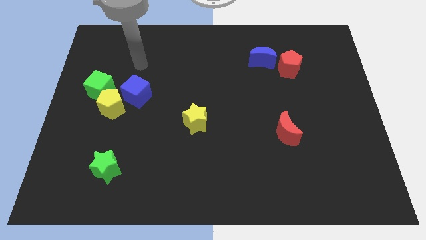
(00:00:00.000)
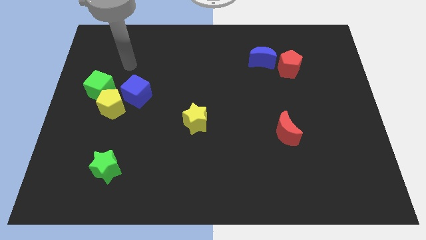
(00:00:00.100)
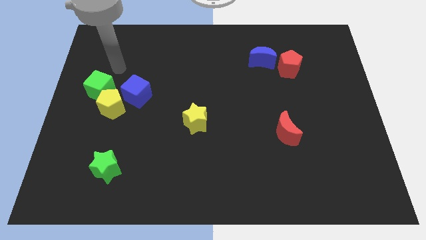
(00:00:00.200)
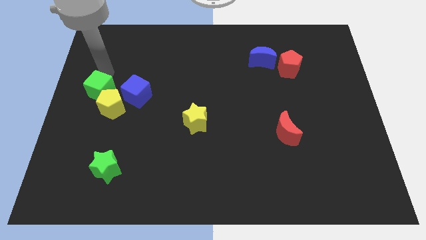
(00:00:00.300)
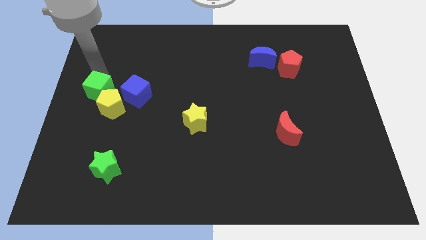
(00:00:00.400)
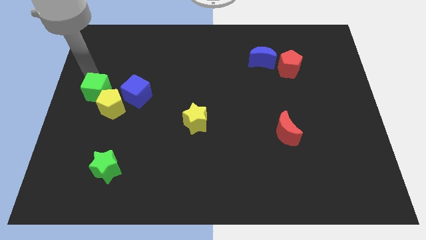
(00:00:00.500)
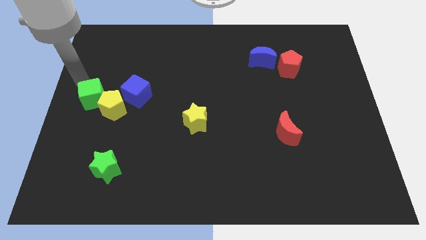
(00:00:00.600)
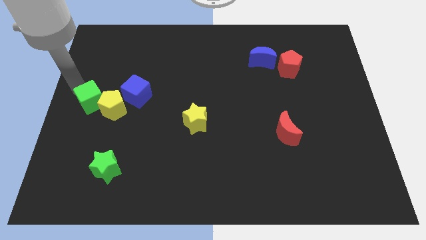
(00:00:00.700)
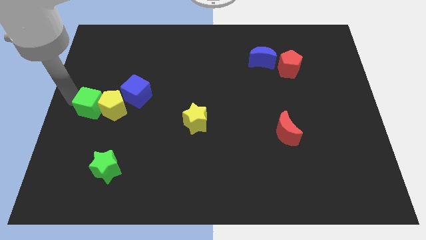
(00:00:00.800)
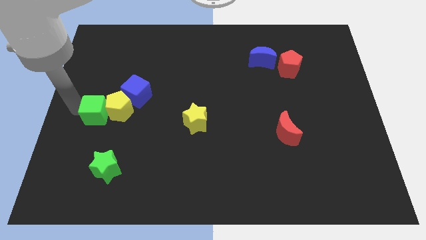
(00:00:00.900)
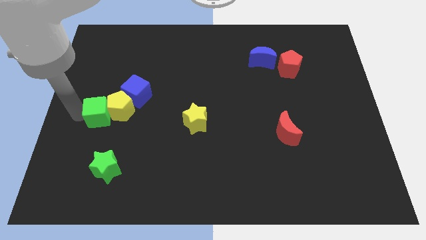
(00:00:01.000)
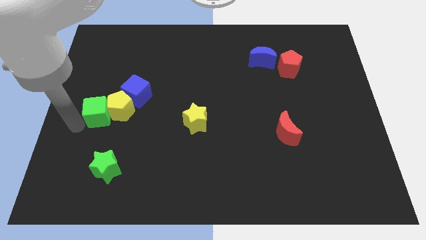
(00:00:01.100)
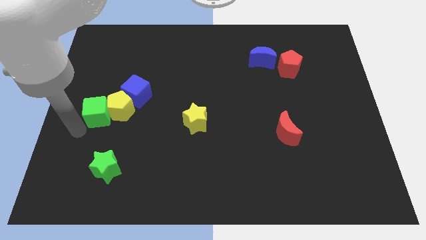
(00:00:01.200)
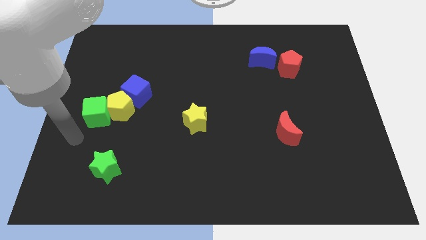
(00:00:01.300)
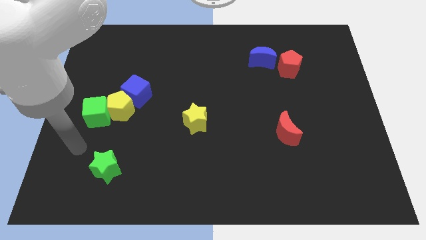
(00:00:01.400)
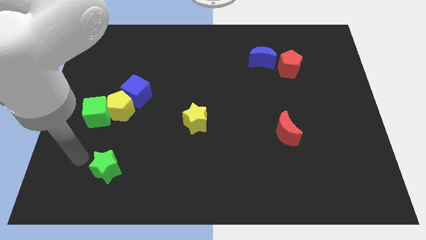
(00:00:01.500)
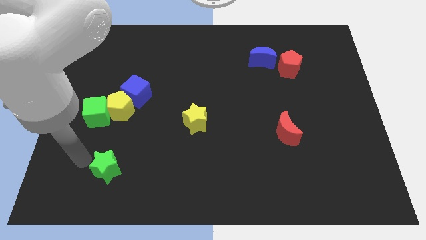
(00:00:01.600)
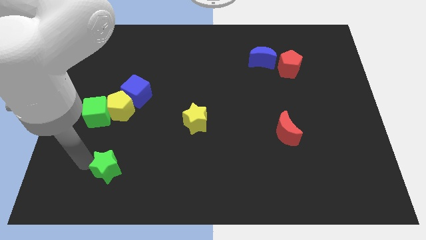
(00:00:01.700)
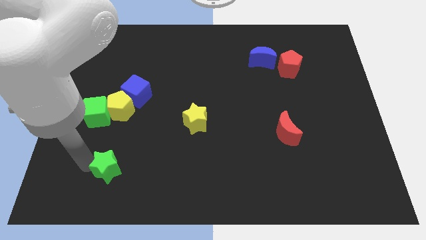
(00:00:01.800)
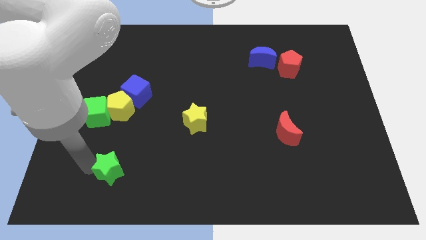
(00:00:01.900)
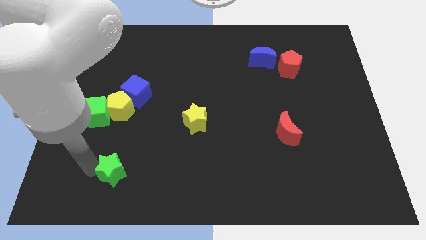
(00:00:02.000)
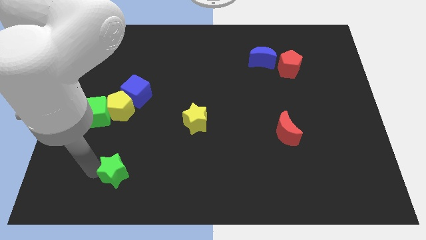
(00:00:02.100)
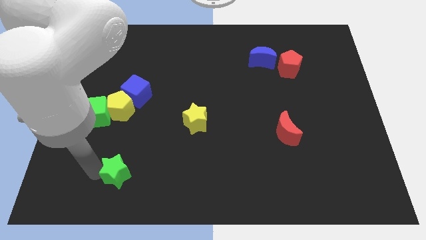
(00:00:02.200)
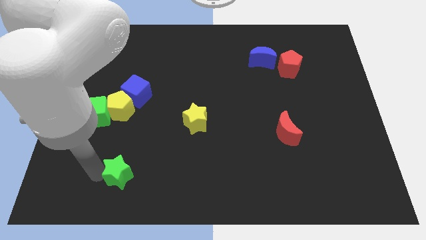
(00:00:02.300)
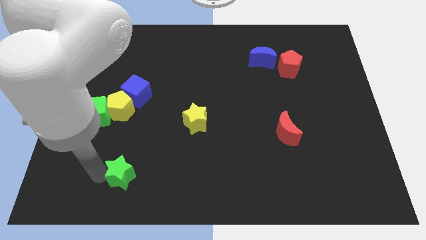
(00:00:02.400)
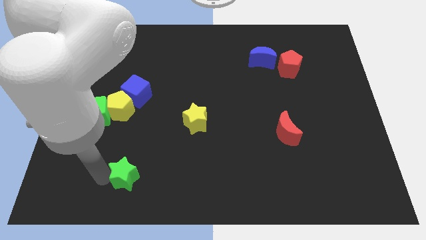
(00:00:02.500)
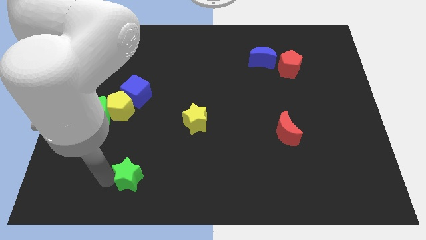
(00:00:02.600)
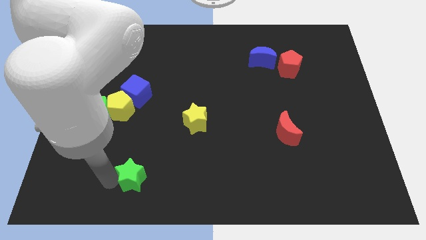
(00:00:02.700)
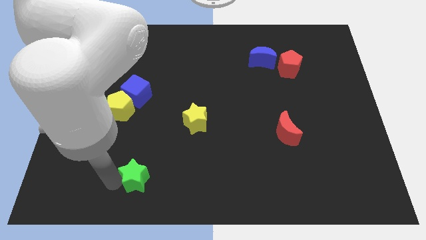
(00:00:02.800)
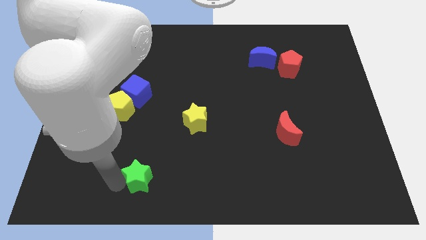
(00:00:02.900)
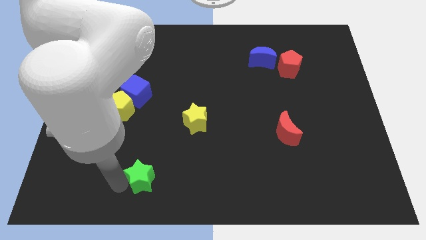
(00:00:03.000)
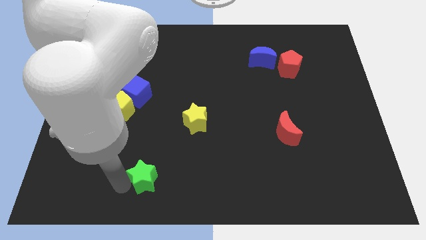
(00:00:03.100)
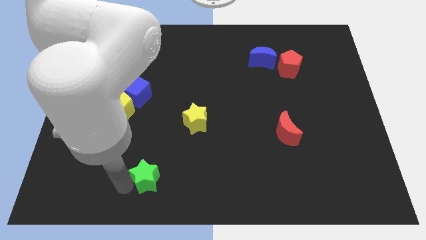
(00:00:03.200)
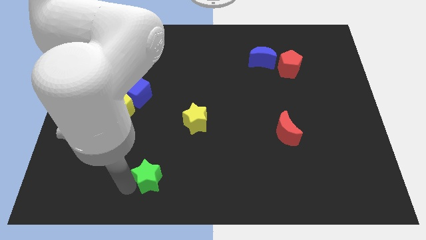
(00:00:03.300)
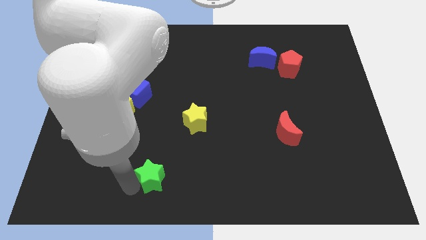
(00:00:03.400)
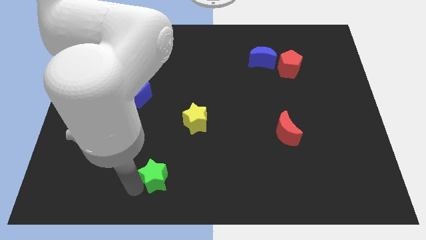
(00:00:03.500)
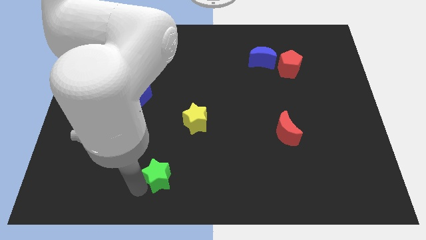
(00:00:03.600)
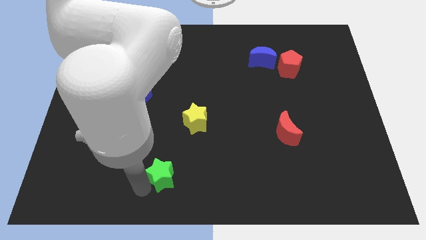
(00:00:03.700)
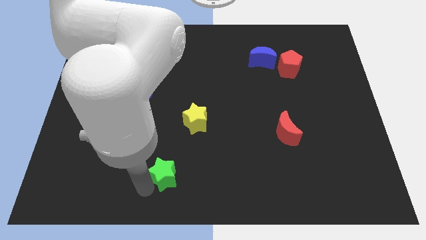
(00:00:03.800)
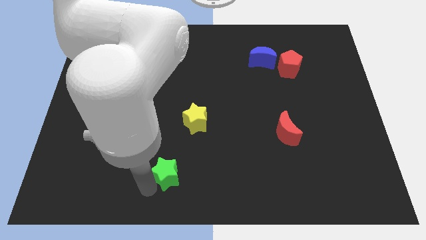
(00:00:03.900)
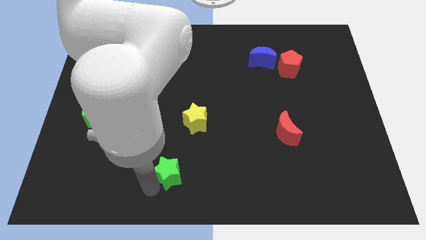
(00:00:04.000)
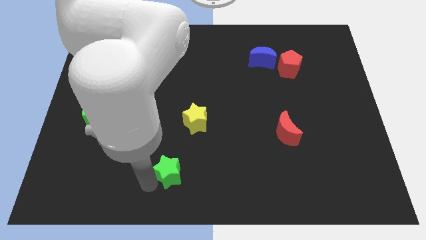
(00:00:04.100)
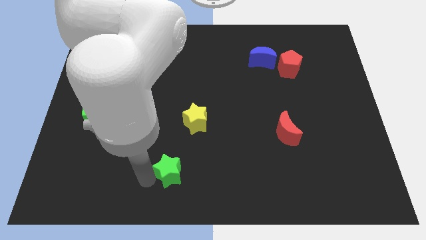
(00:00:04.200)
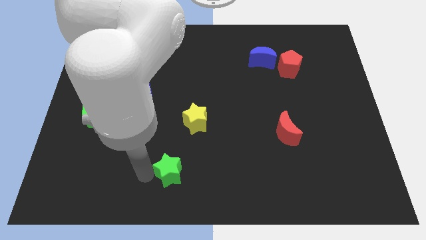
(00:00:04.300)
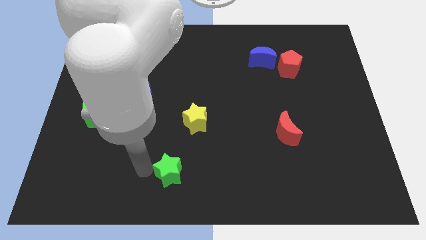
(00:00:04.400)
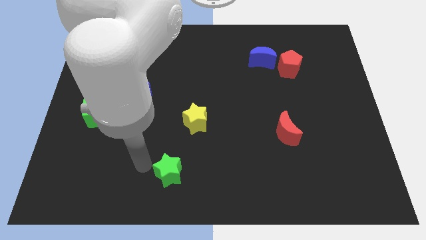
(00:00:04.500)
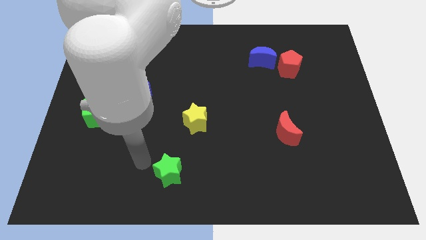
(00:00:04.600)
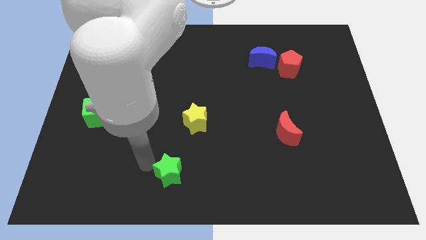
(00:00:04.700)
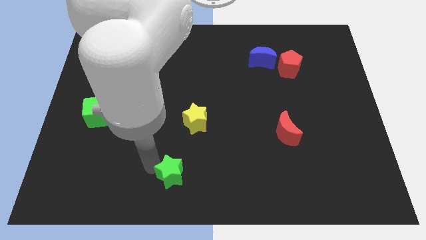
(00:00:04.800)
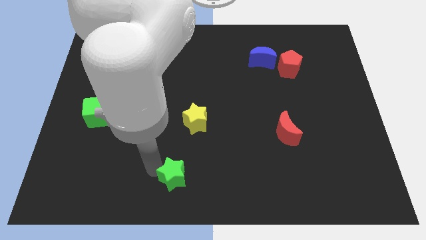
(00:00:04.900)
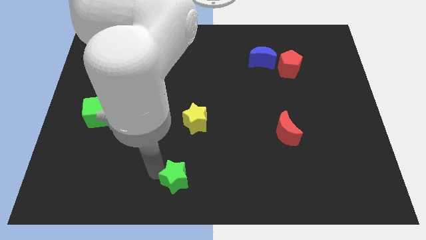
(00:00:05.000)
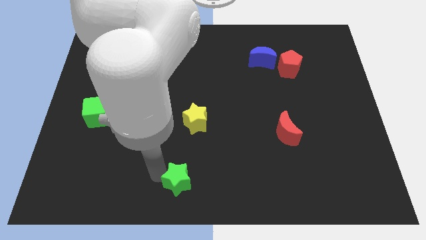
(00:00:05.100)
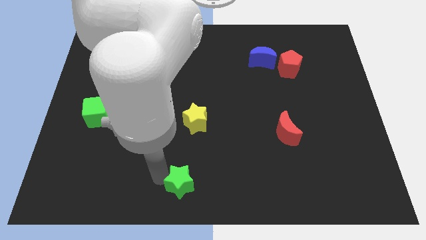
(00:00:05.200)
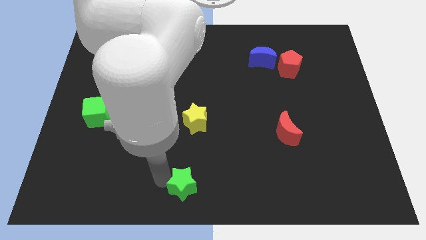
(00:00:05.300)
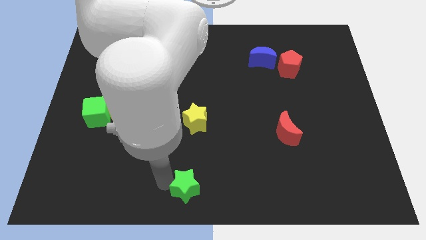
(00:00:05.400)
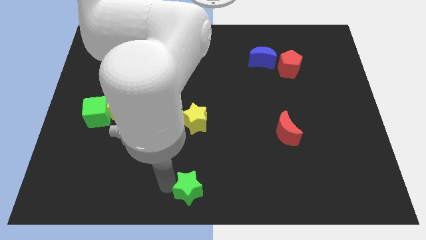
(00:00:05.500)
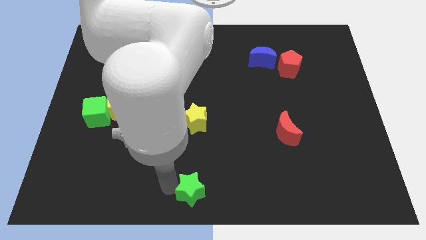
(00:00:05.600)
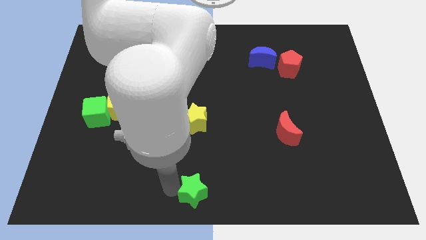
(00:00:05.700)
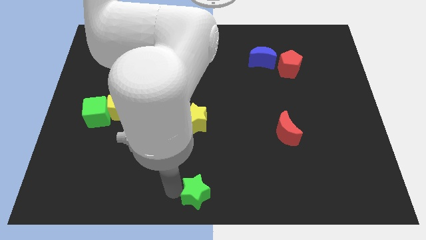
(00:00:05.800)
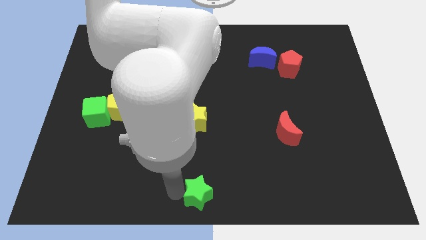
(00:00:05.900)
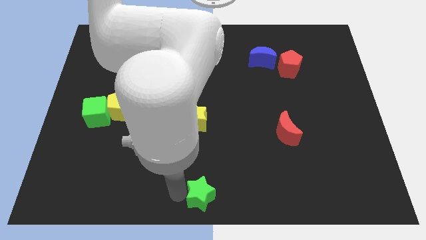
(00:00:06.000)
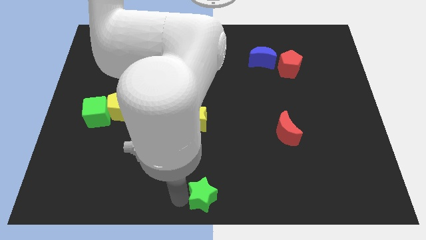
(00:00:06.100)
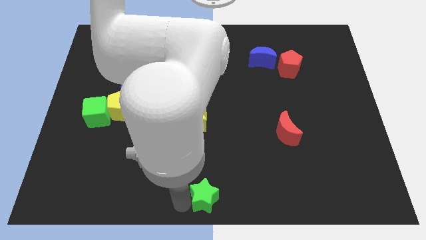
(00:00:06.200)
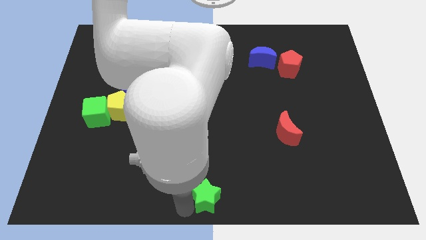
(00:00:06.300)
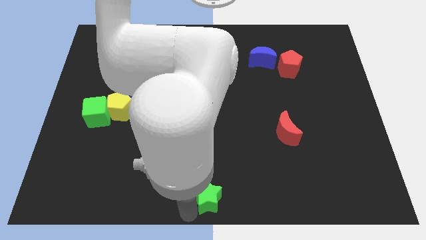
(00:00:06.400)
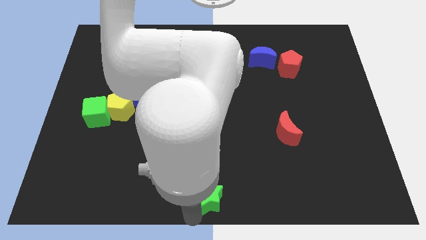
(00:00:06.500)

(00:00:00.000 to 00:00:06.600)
move the green star to the right

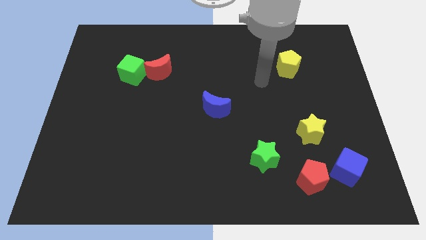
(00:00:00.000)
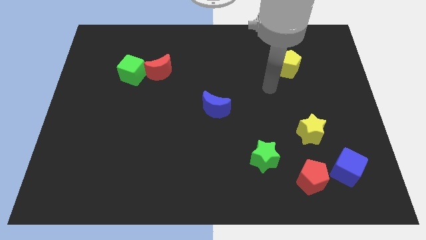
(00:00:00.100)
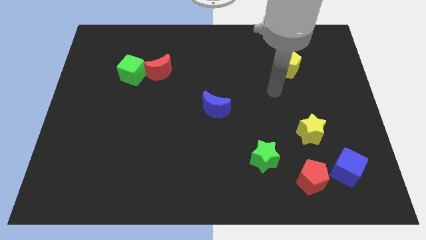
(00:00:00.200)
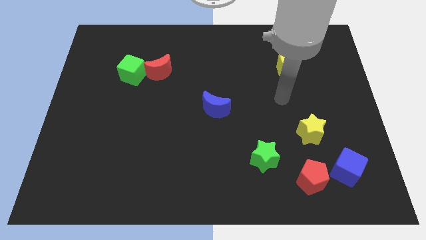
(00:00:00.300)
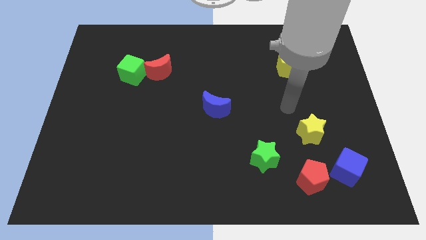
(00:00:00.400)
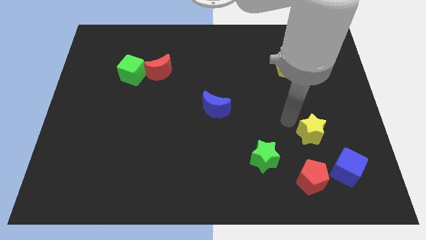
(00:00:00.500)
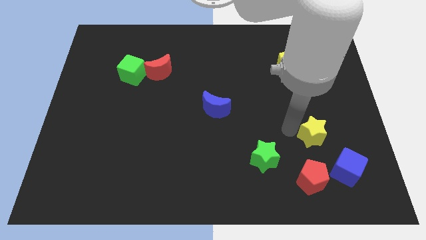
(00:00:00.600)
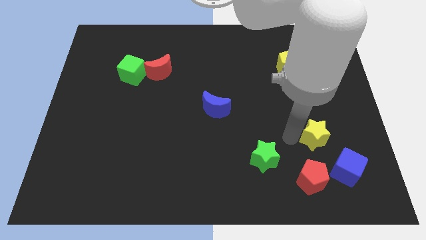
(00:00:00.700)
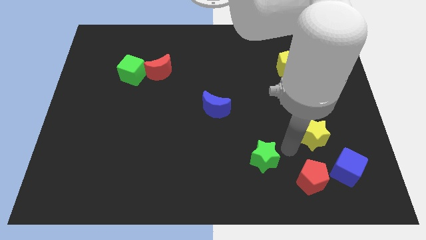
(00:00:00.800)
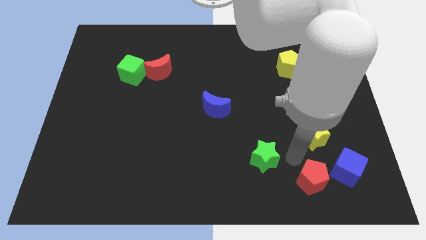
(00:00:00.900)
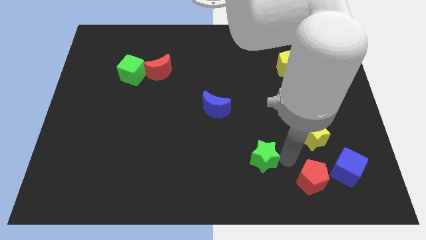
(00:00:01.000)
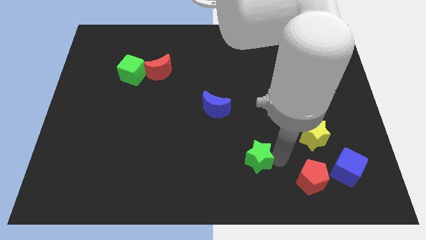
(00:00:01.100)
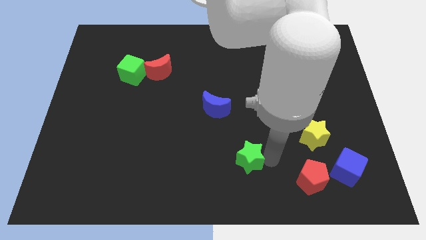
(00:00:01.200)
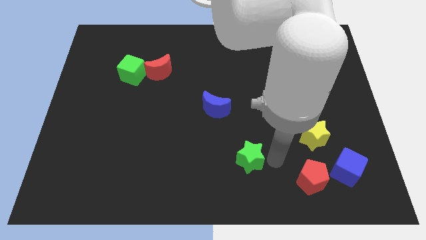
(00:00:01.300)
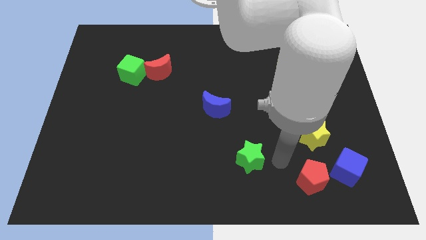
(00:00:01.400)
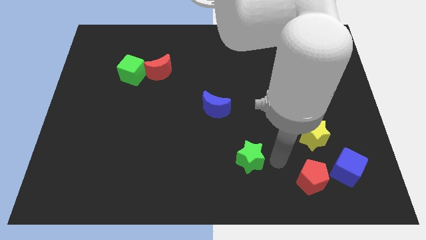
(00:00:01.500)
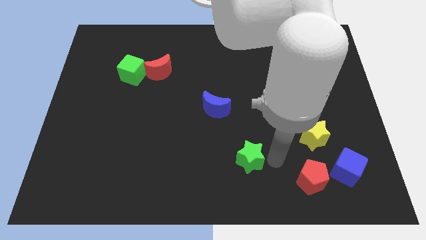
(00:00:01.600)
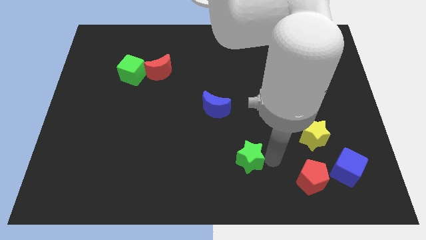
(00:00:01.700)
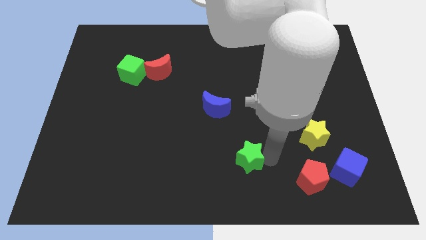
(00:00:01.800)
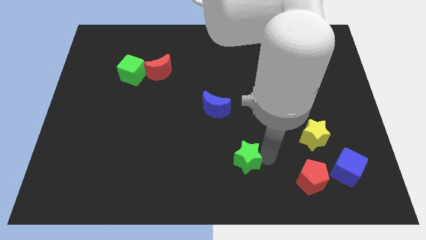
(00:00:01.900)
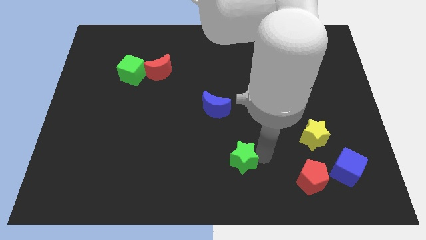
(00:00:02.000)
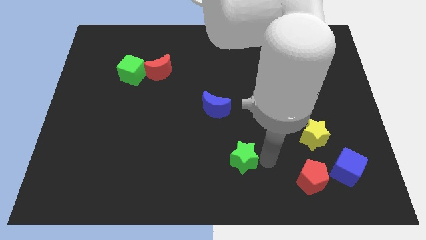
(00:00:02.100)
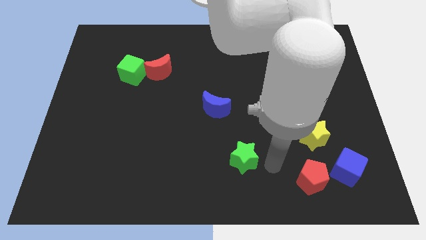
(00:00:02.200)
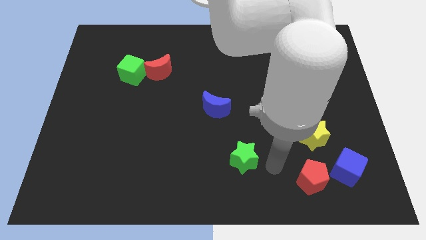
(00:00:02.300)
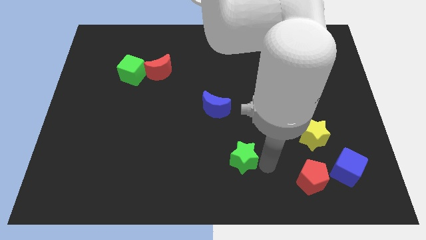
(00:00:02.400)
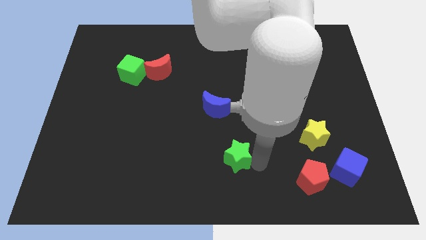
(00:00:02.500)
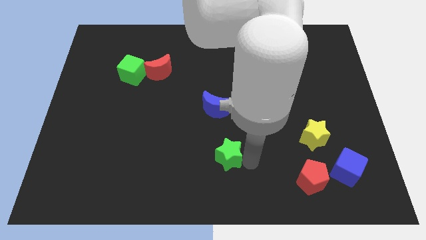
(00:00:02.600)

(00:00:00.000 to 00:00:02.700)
push the green star to the left somewhat
